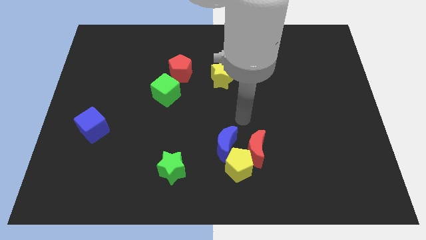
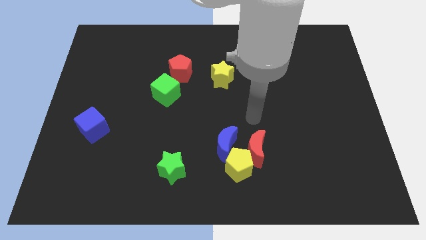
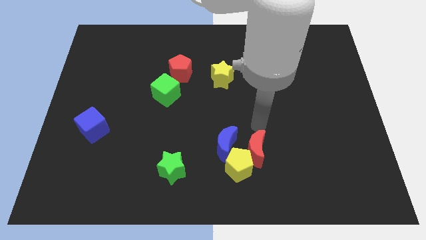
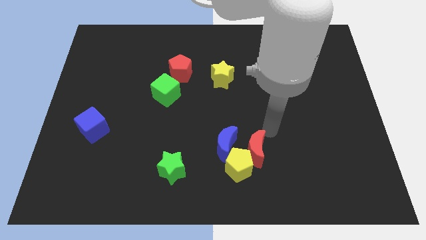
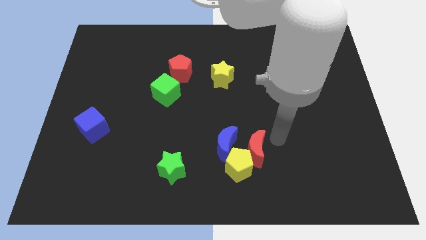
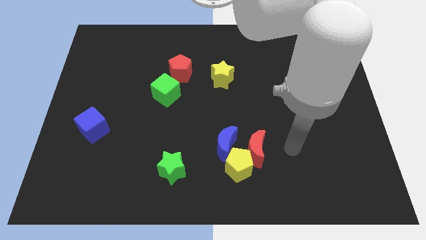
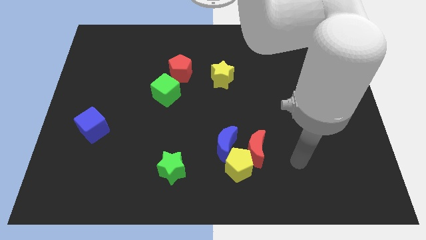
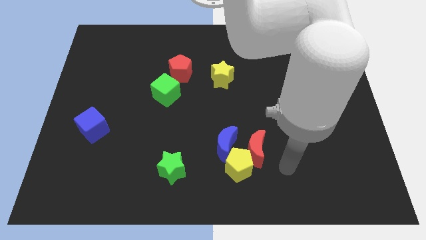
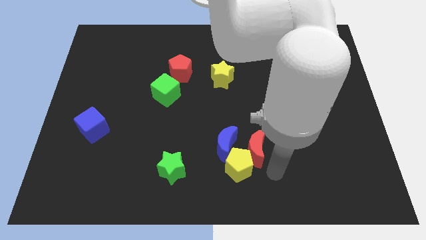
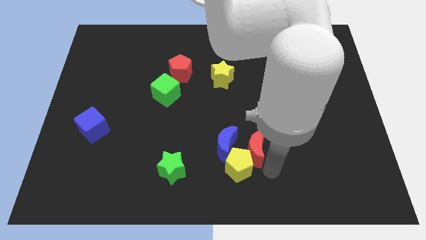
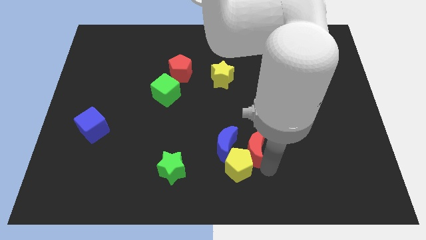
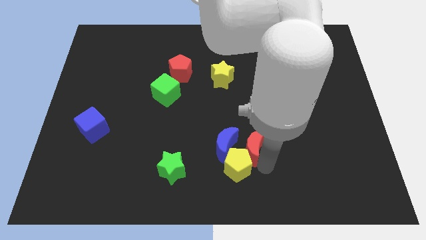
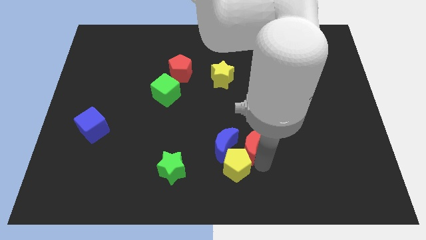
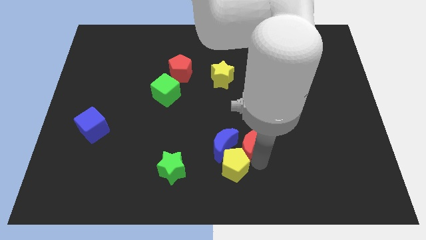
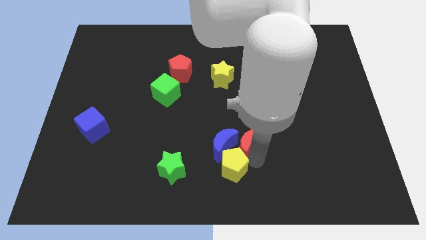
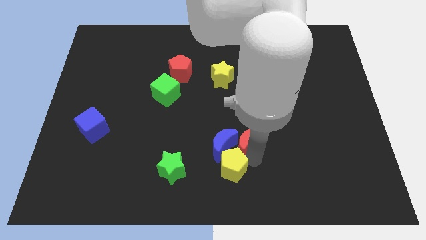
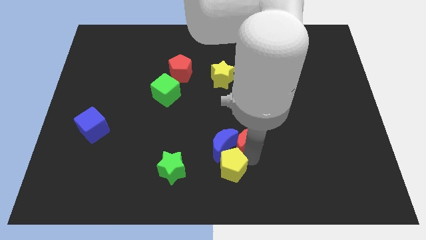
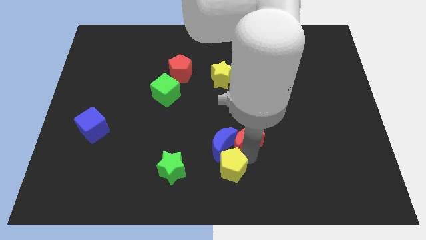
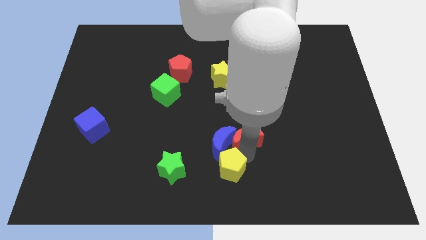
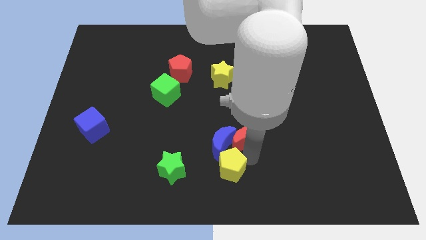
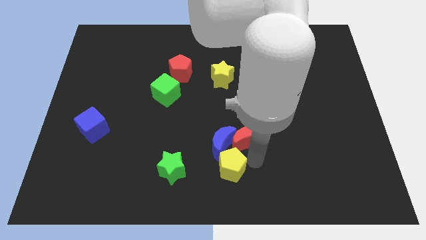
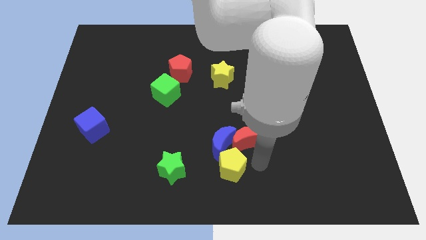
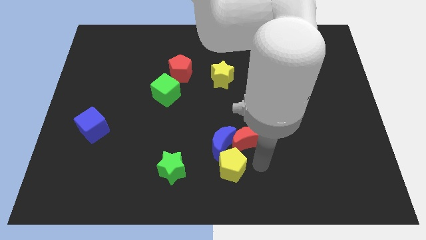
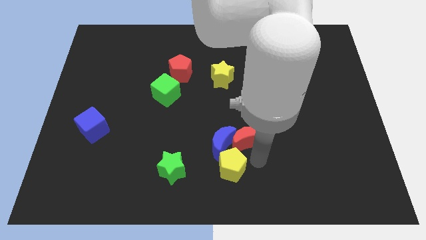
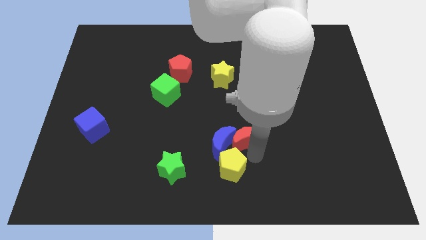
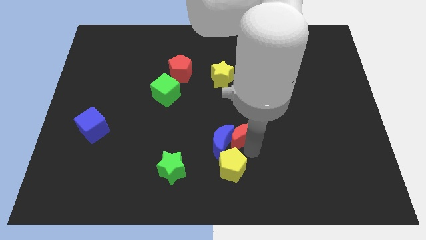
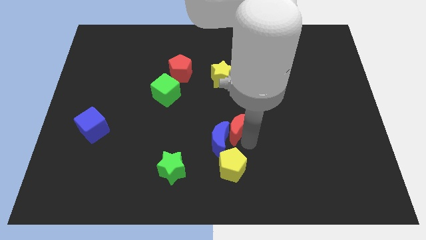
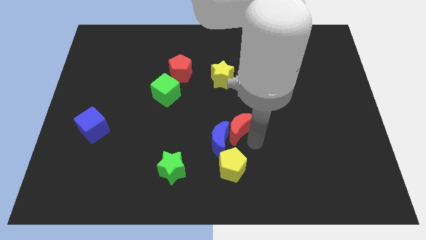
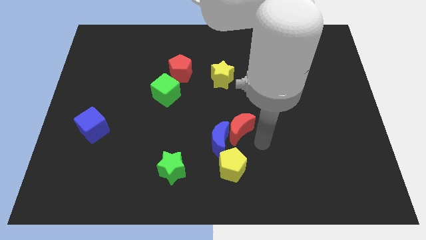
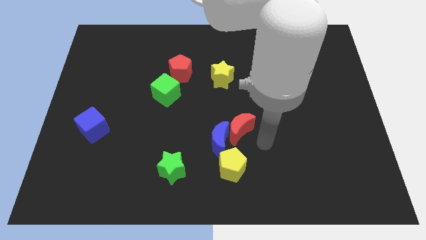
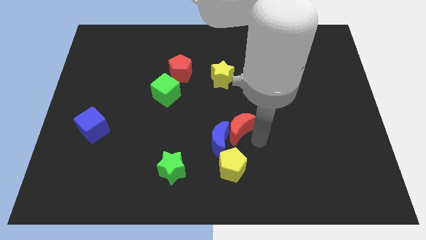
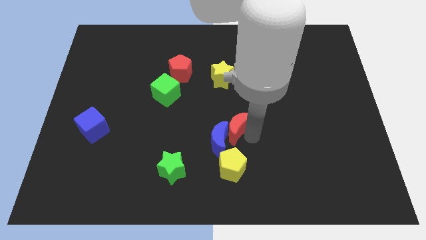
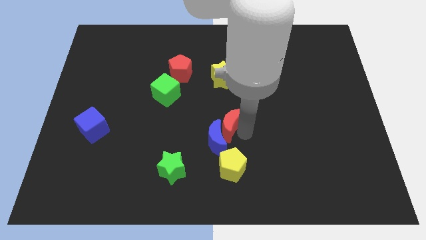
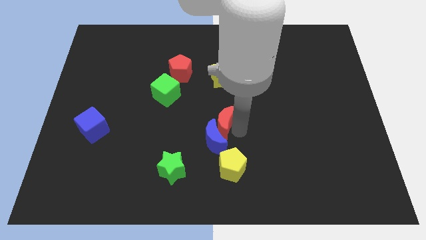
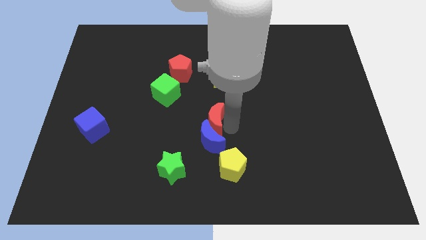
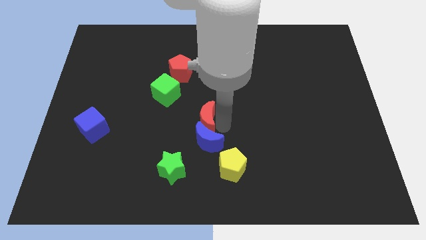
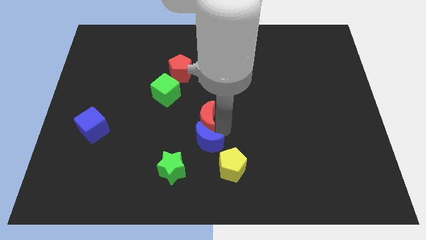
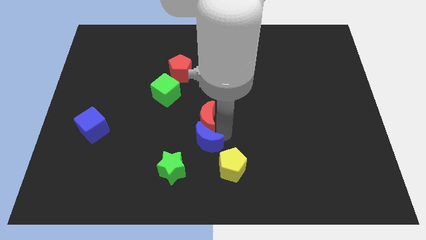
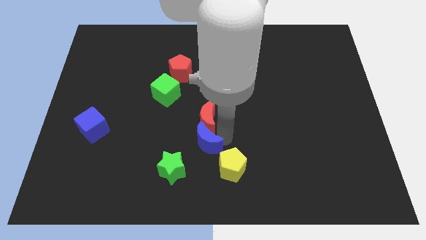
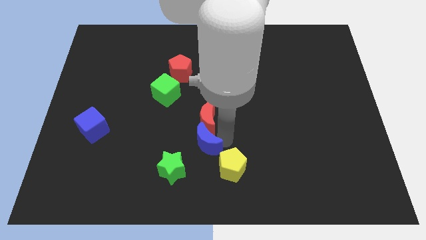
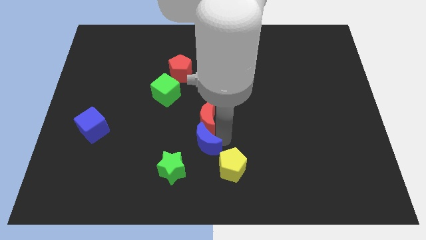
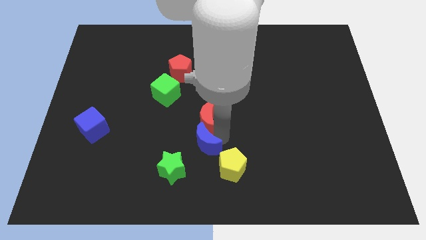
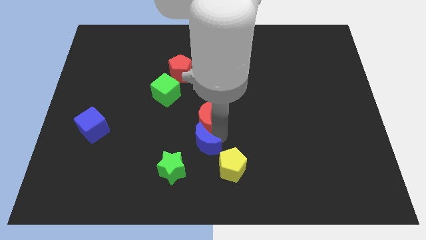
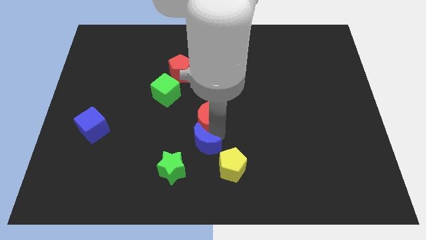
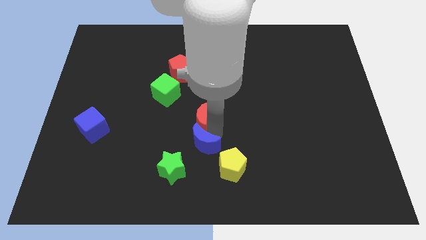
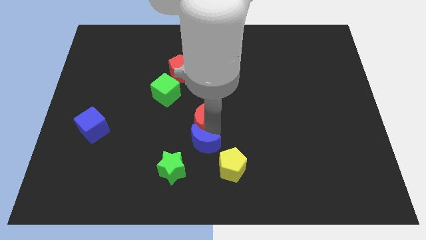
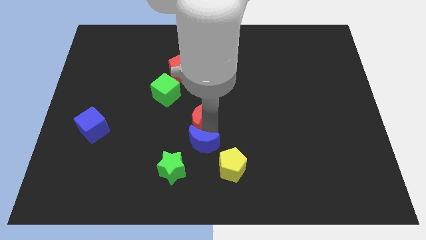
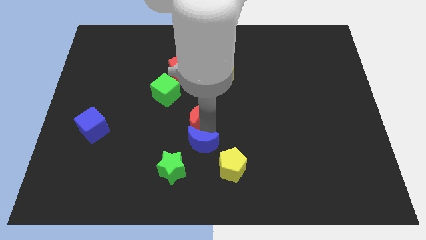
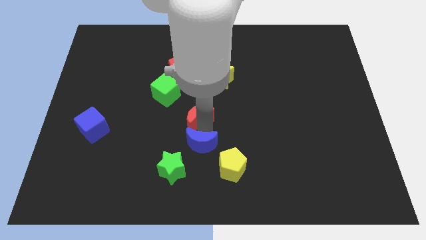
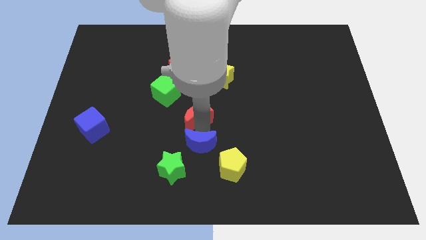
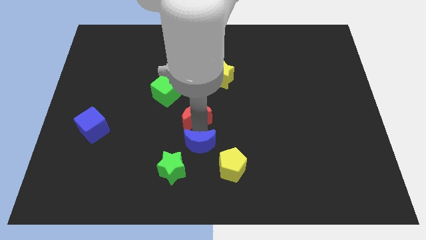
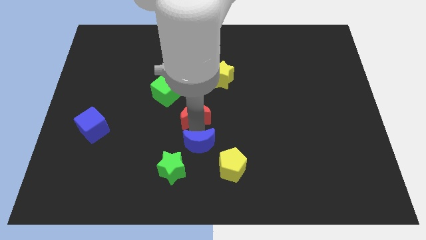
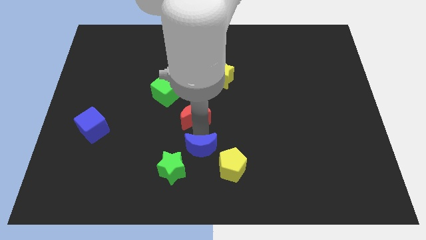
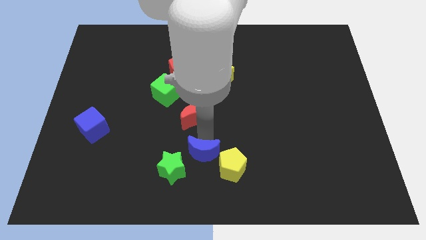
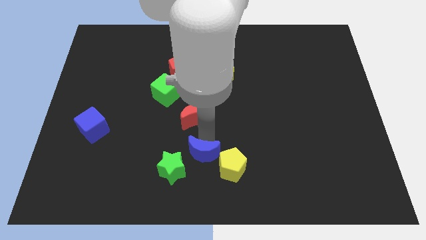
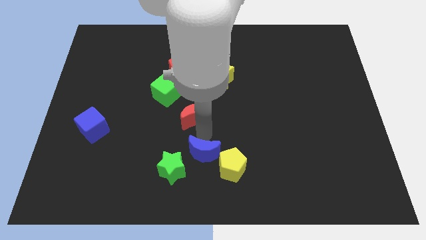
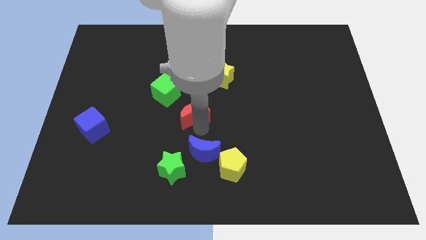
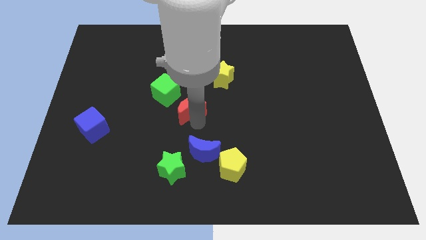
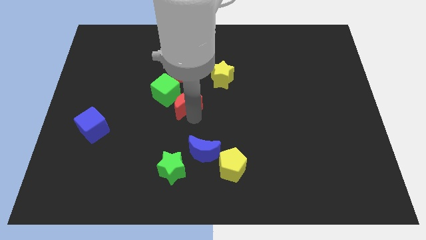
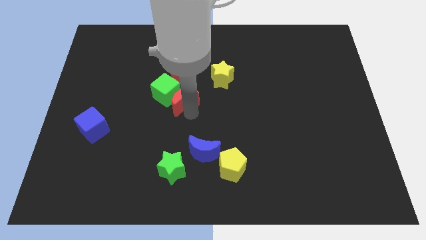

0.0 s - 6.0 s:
put the red moon next to the green cube

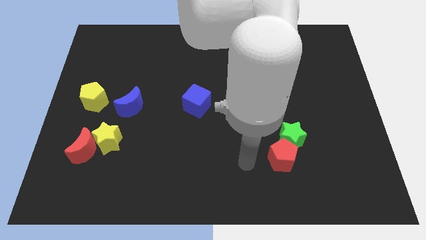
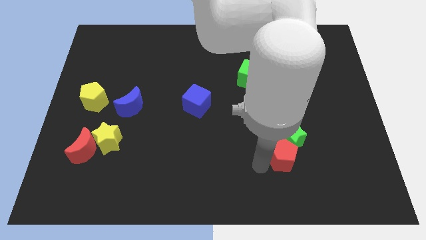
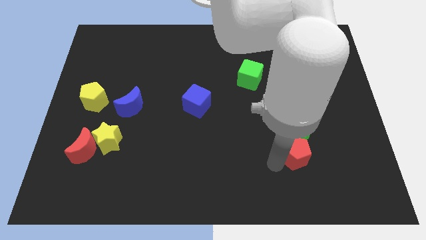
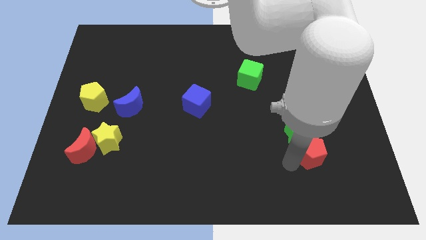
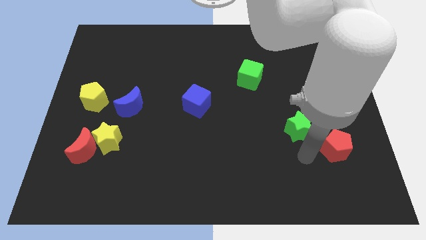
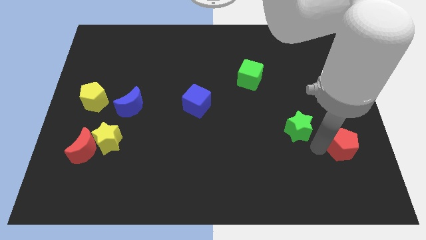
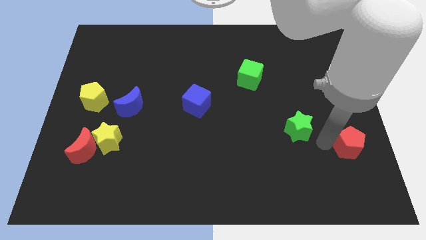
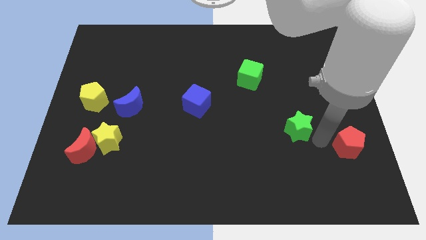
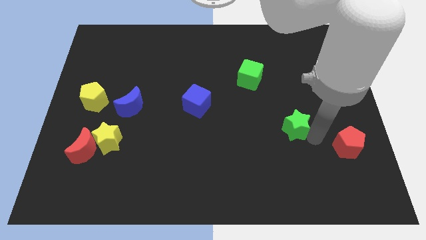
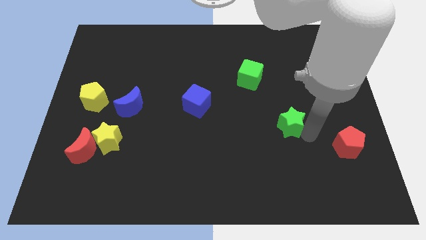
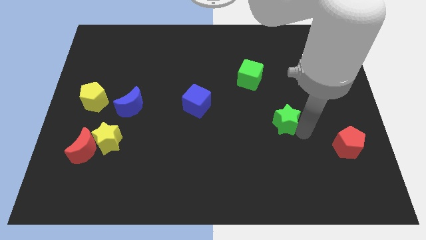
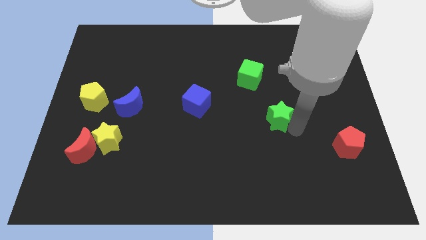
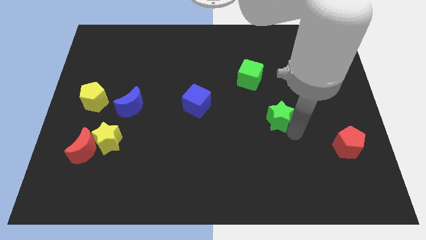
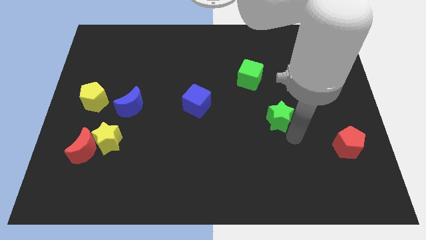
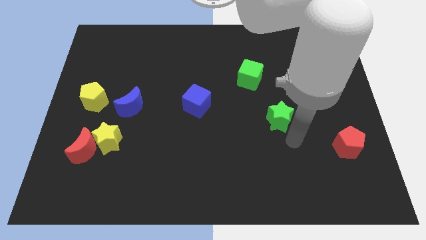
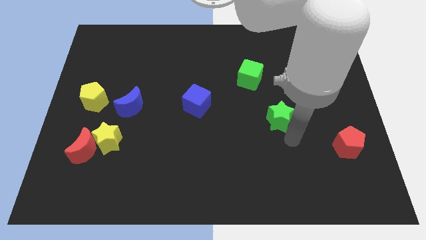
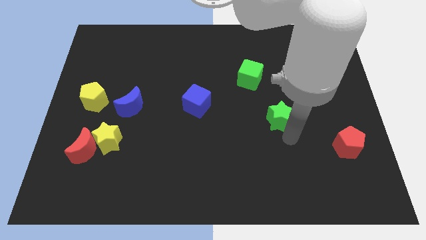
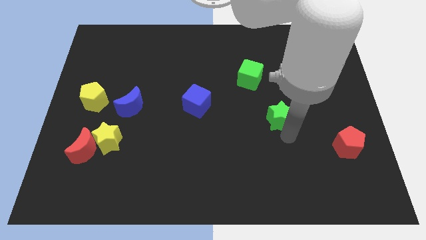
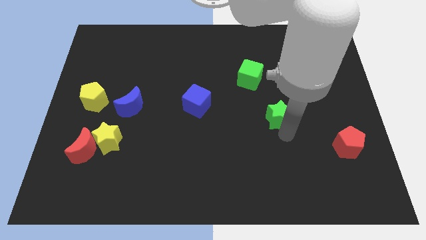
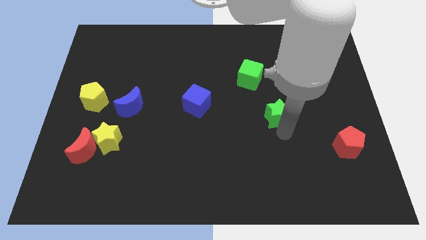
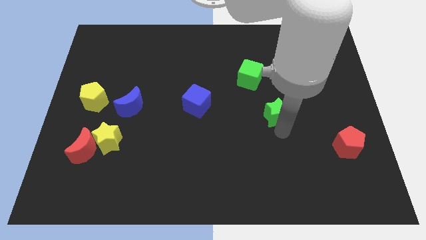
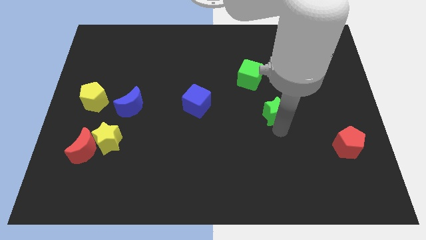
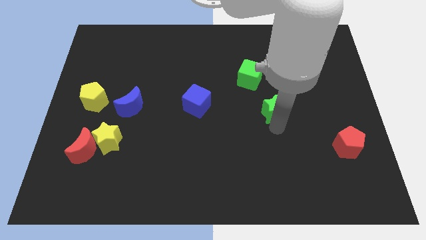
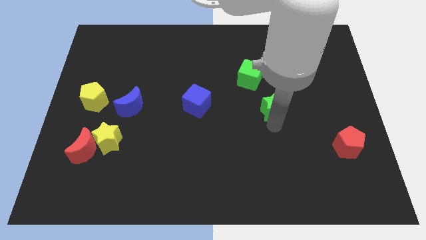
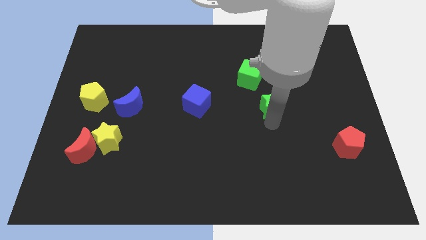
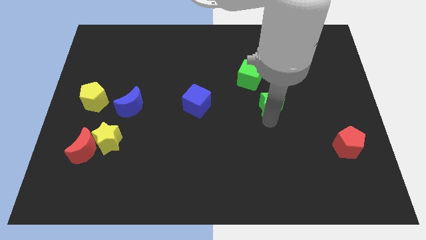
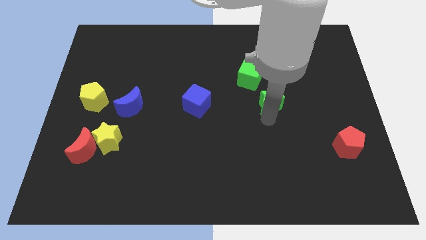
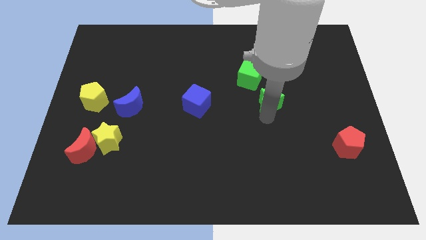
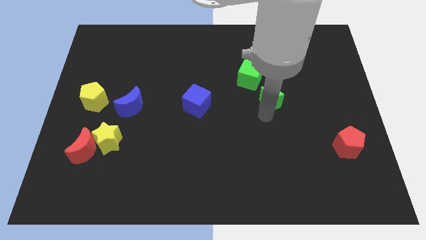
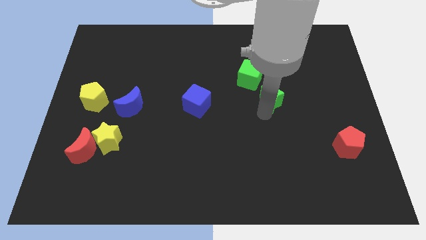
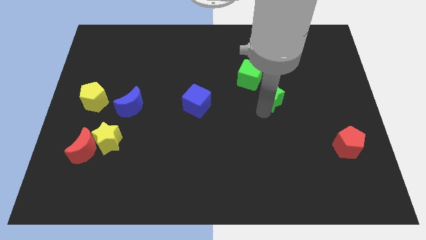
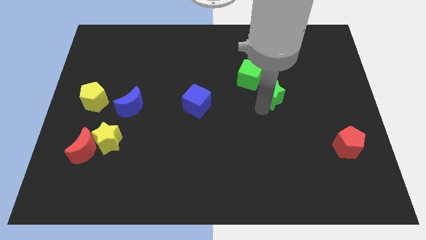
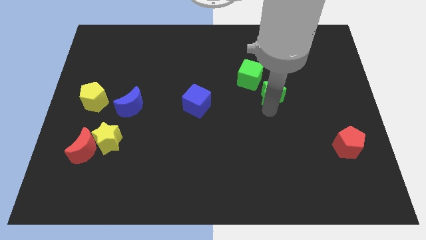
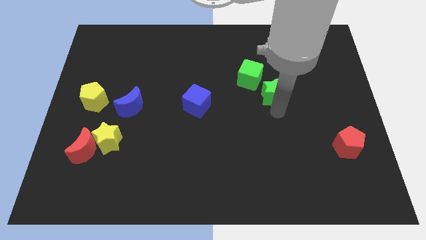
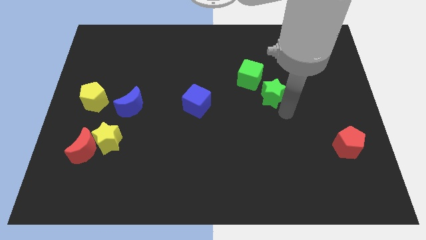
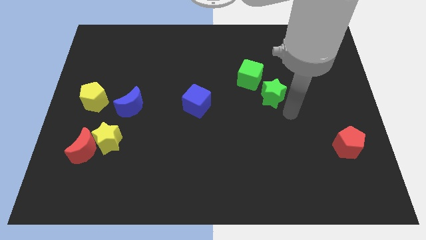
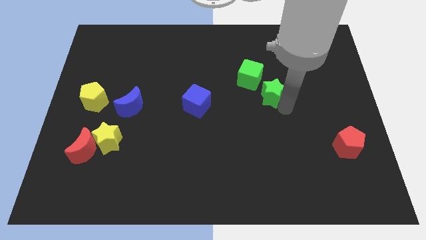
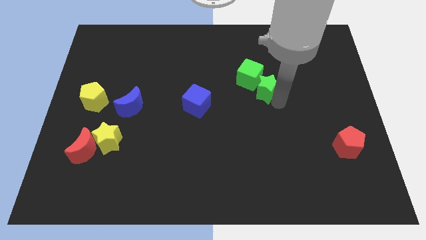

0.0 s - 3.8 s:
slide the green star to the green cube
